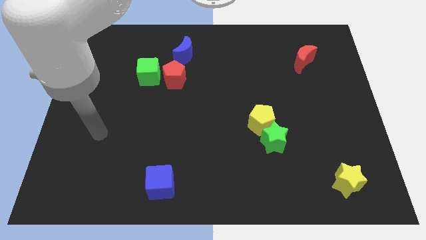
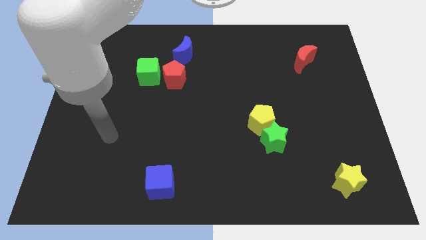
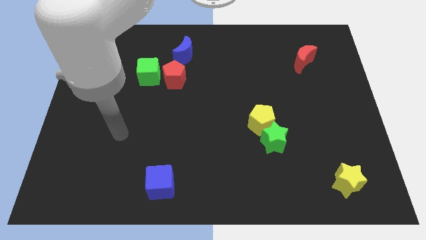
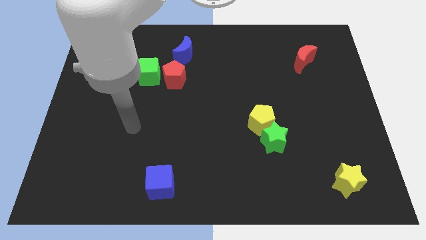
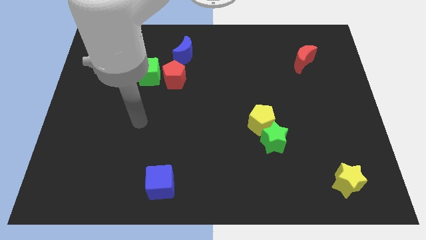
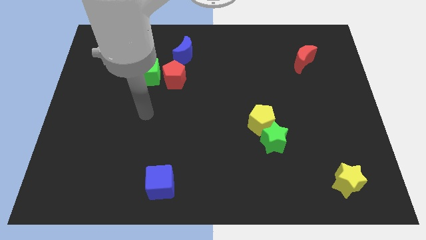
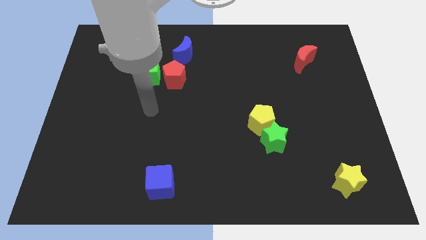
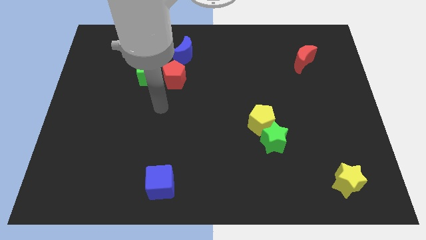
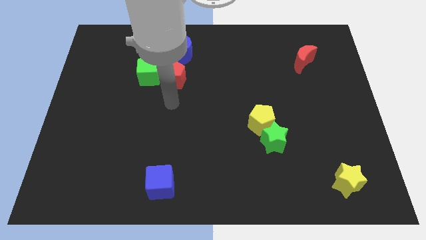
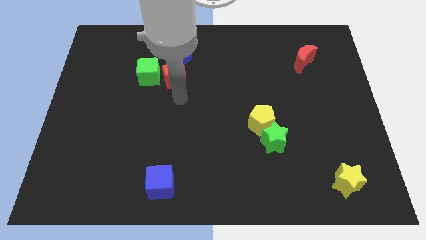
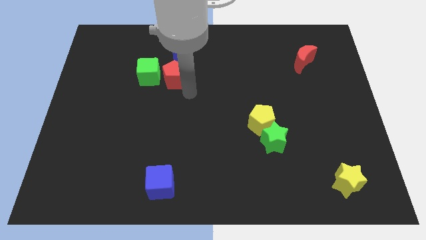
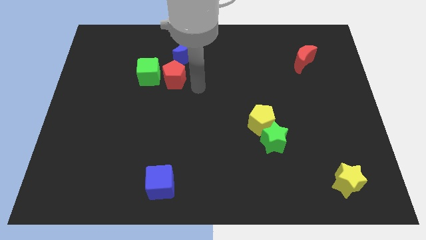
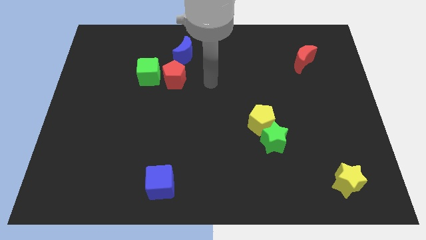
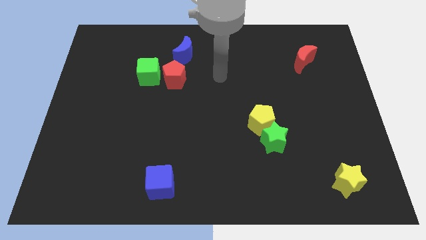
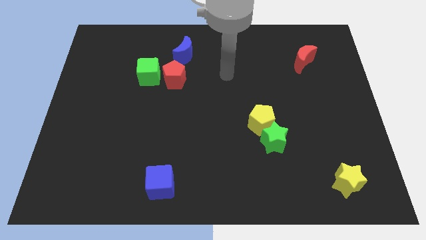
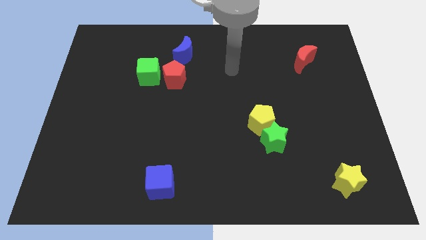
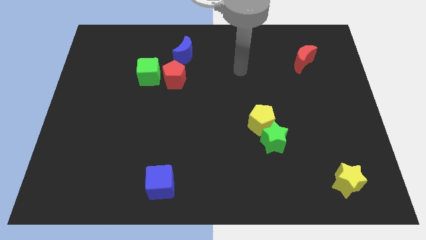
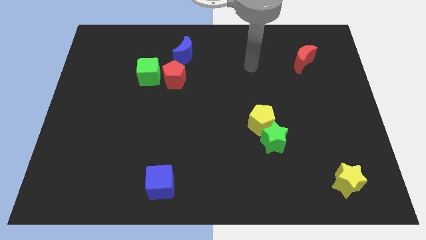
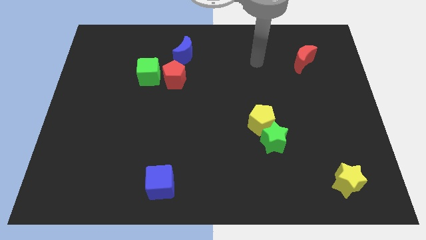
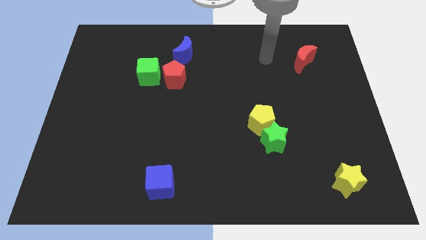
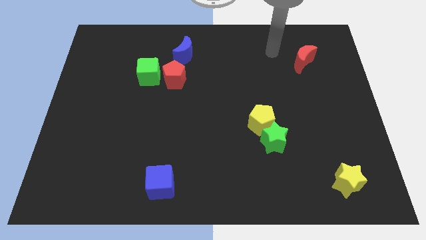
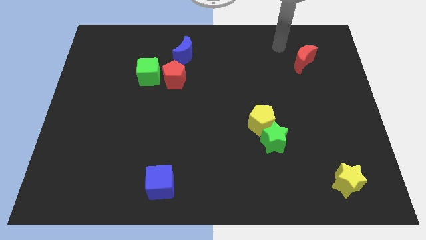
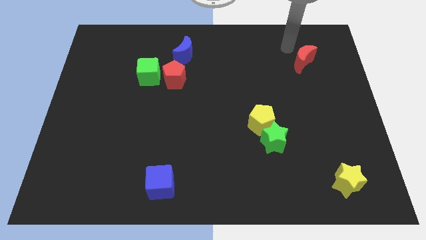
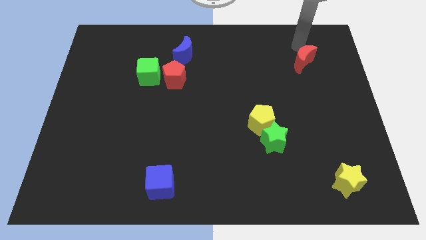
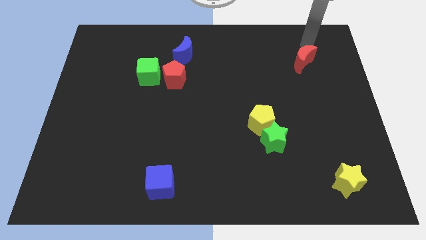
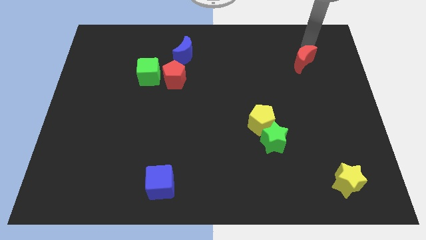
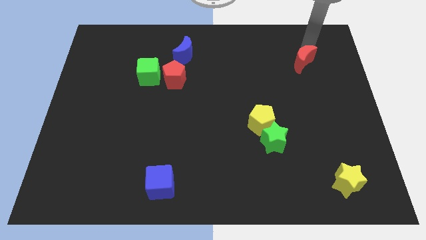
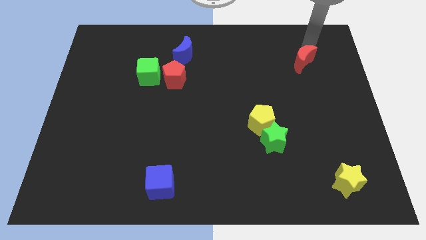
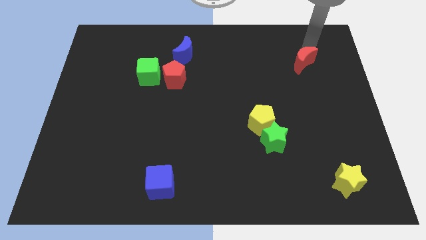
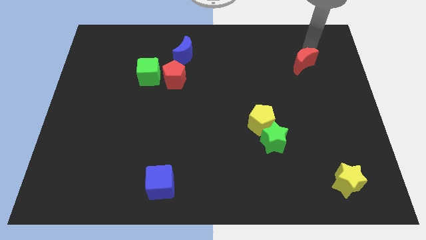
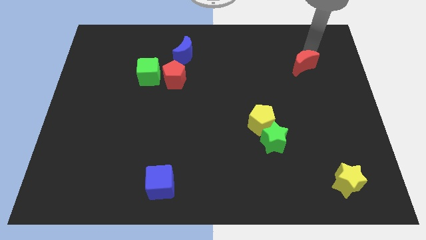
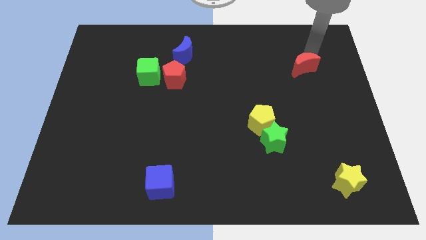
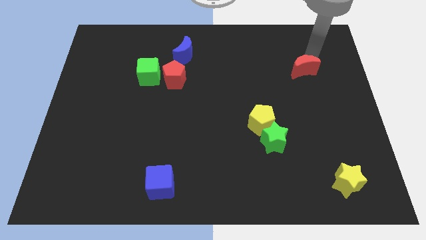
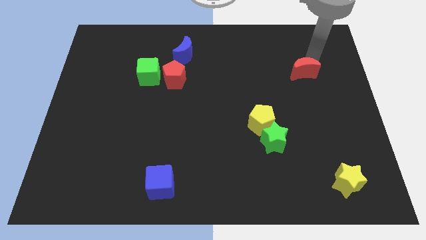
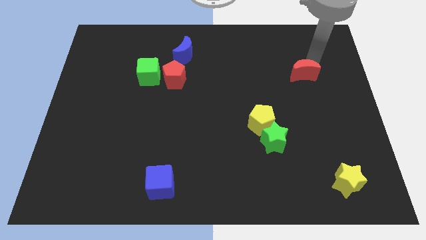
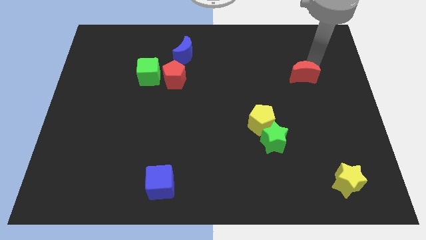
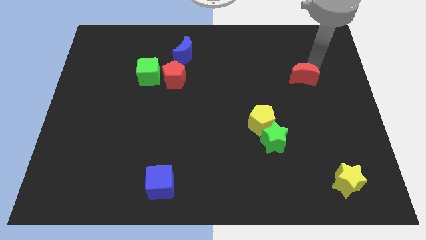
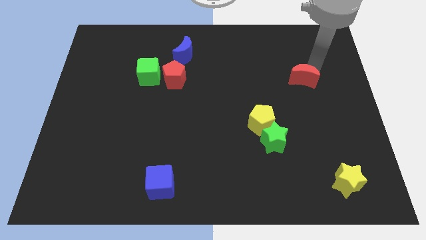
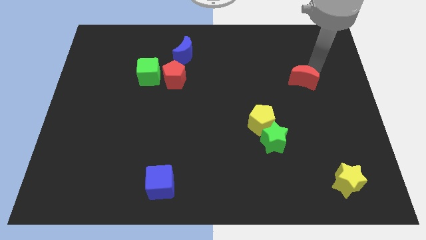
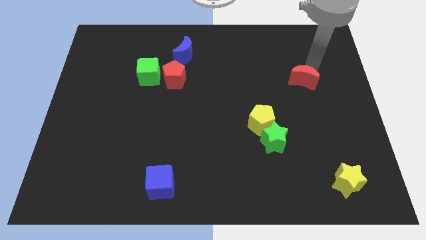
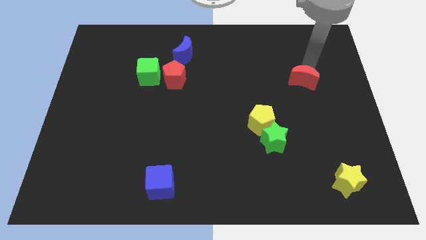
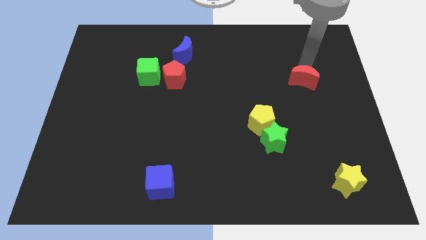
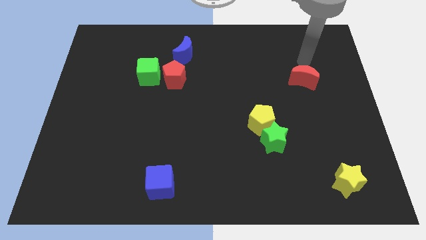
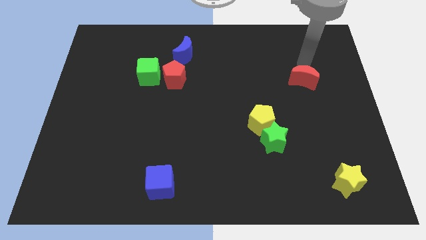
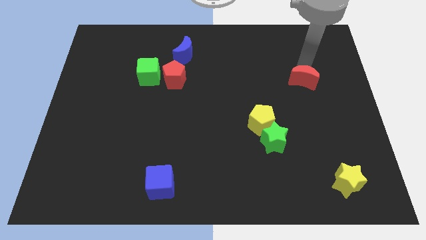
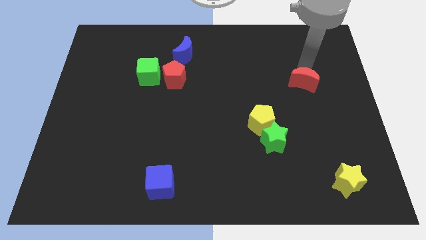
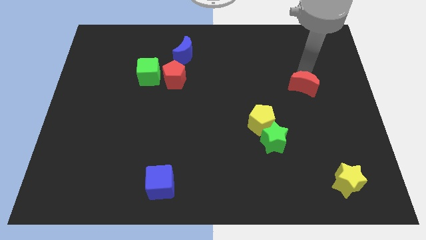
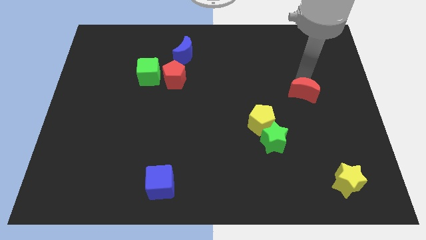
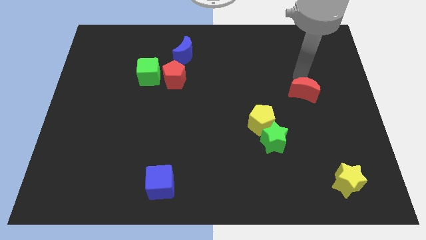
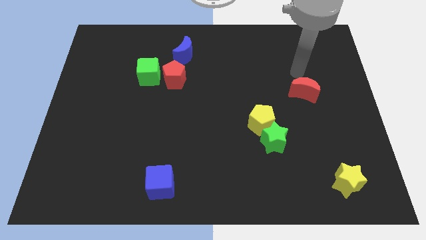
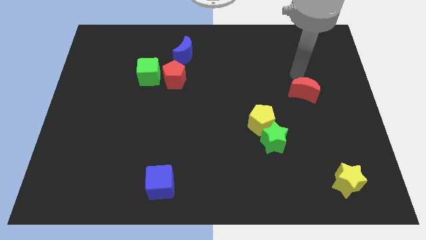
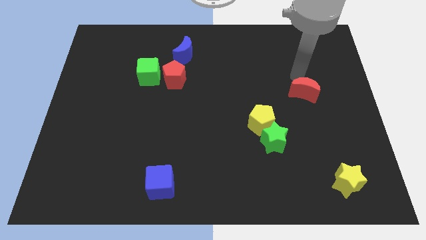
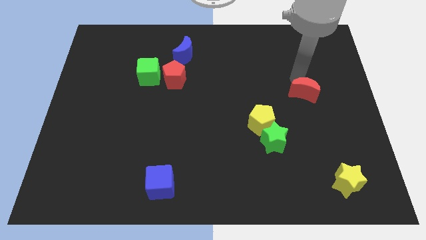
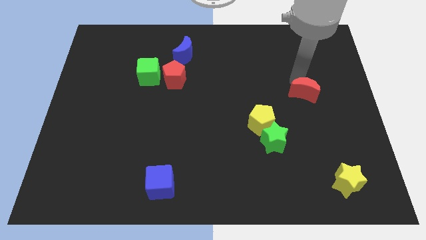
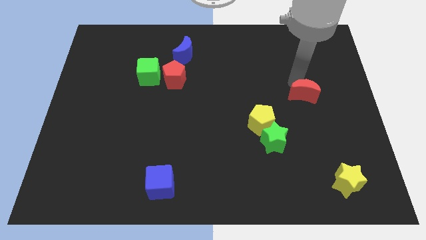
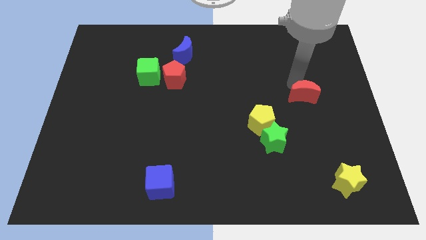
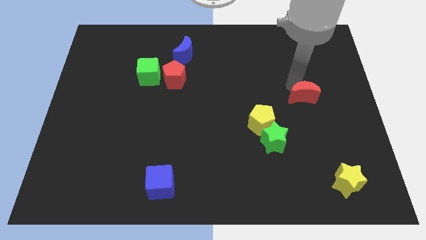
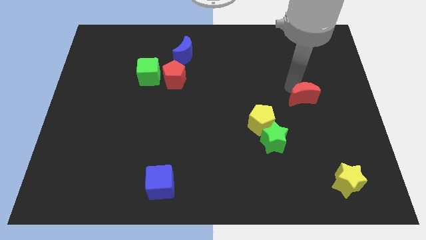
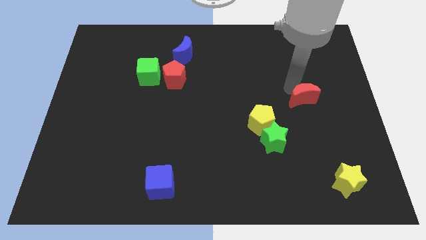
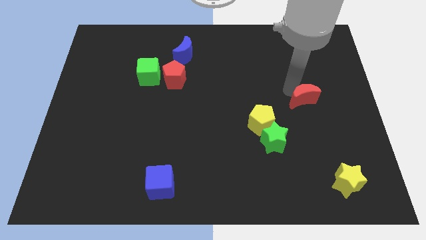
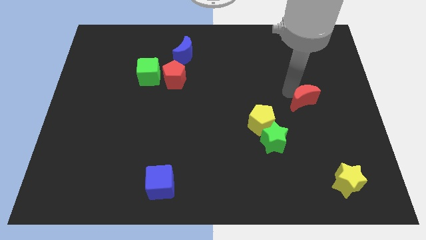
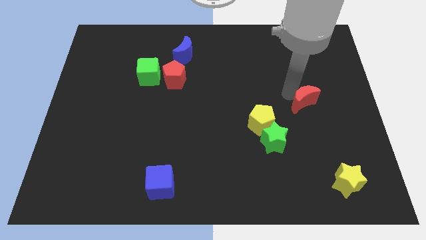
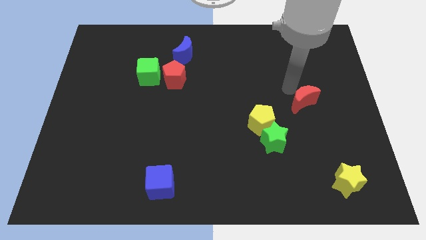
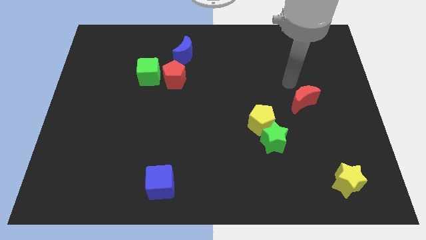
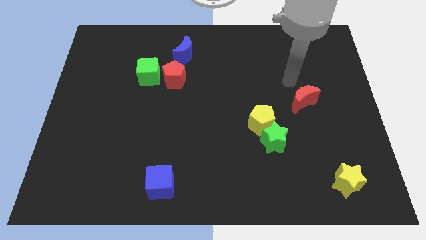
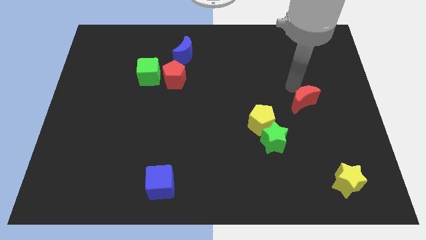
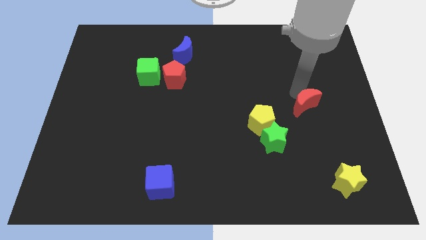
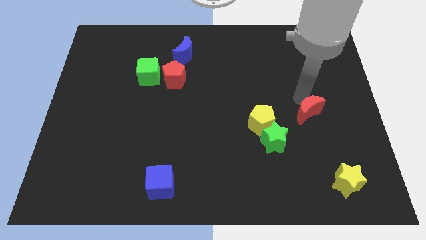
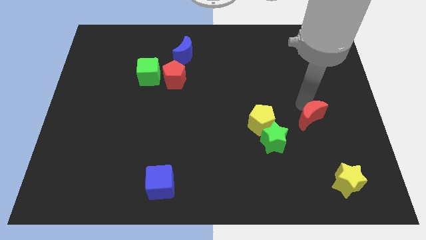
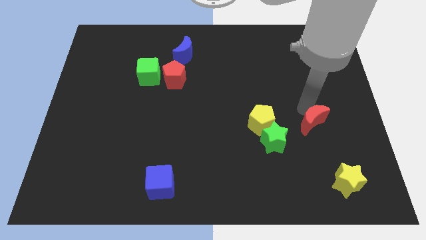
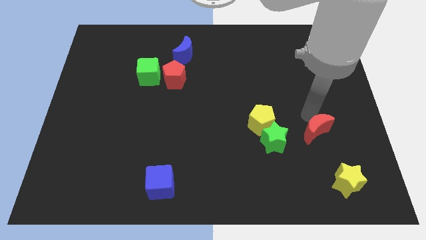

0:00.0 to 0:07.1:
push the red moon downwards

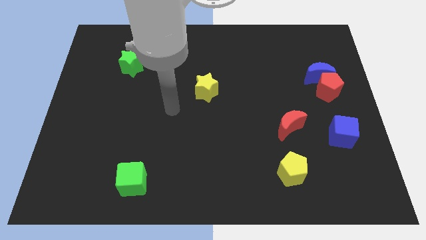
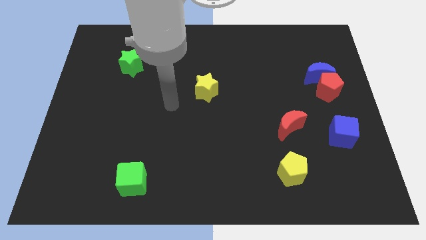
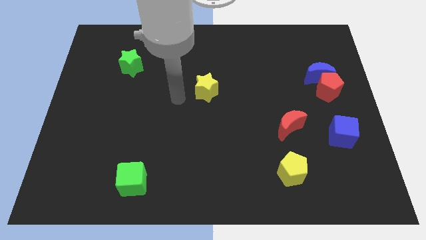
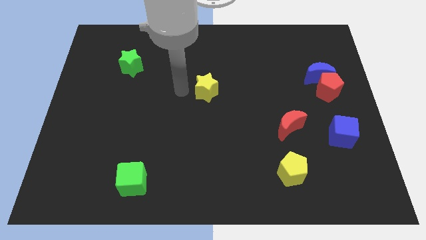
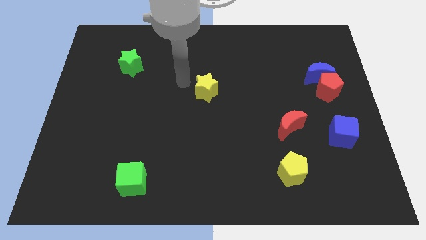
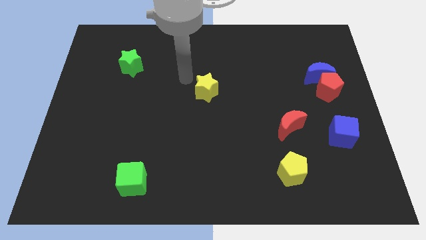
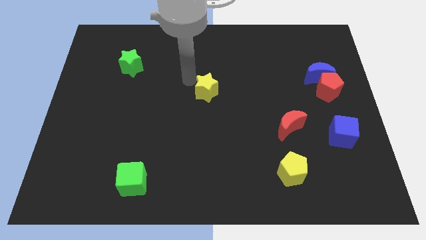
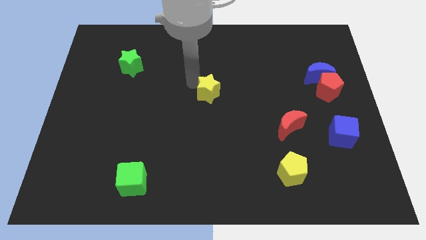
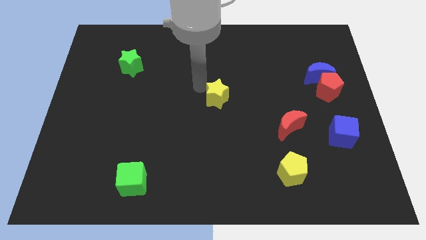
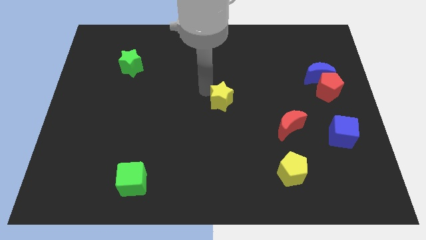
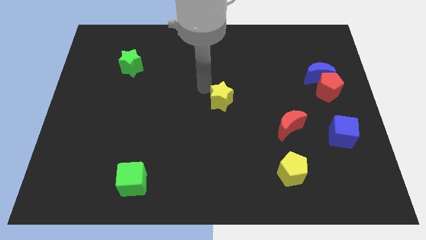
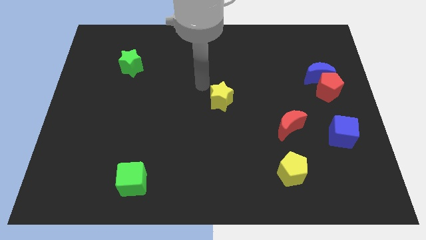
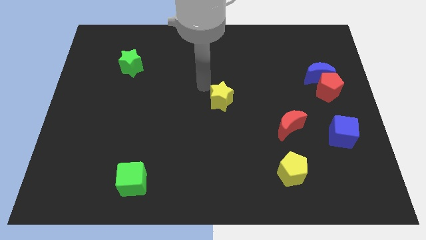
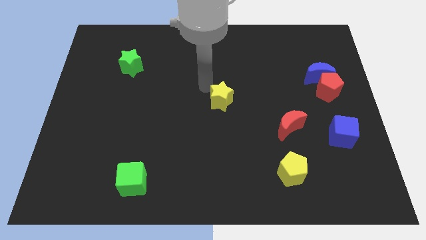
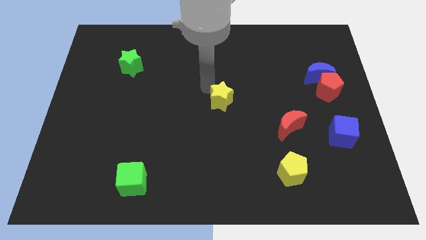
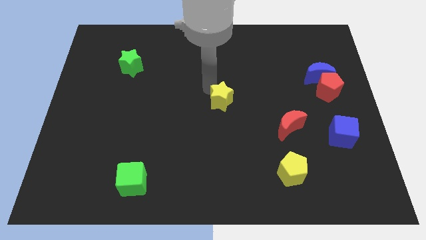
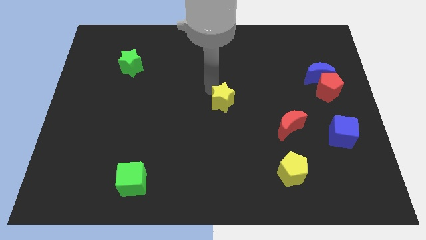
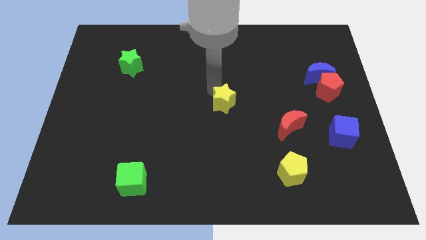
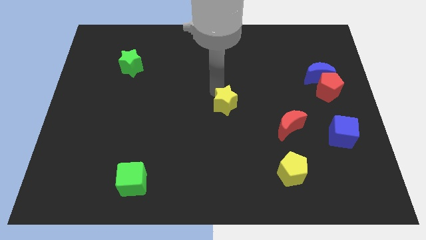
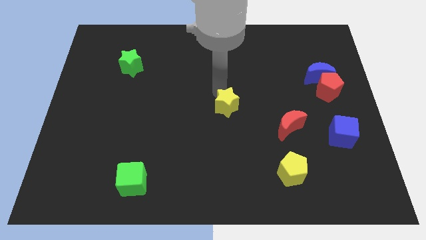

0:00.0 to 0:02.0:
slightly push the yellow star diagonally down and right
